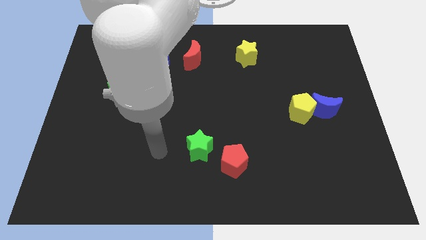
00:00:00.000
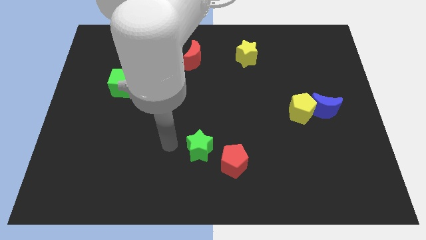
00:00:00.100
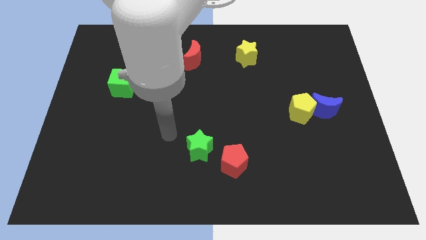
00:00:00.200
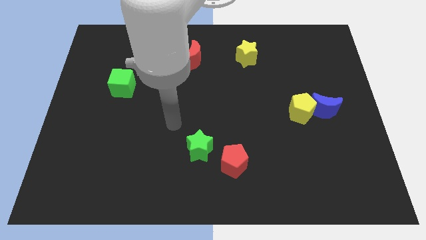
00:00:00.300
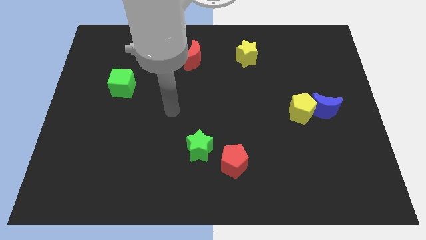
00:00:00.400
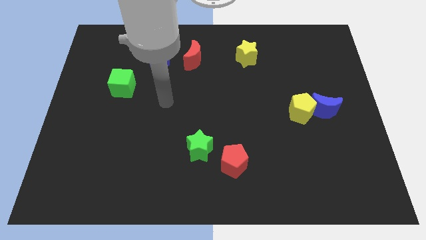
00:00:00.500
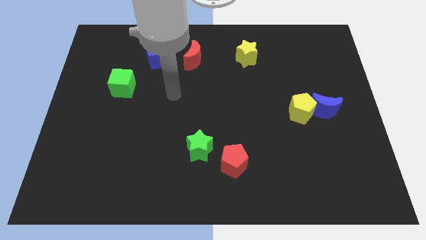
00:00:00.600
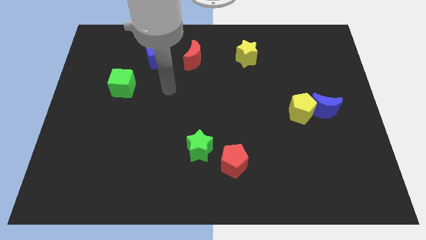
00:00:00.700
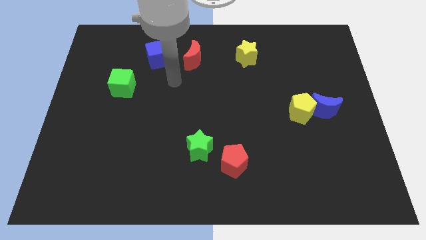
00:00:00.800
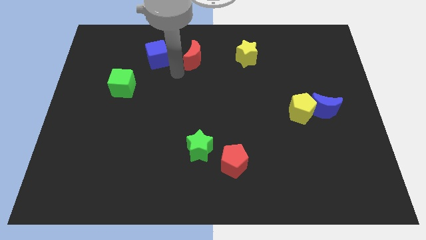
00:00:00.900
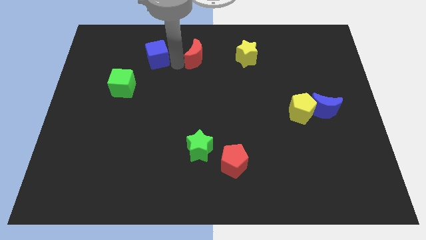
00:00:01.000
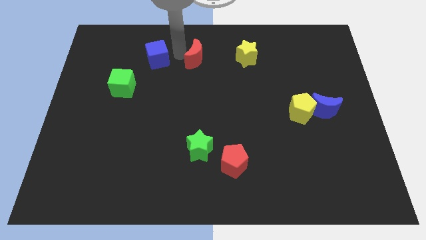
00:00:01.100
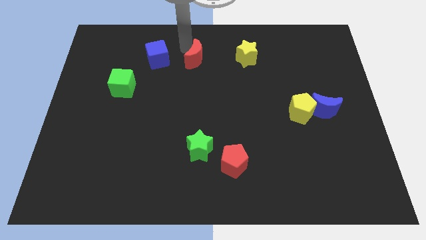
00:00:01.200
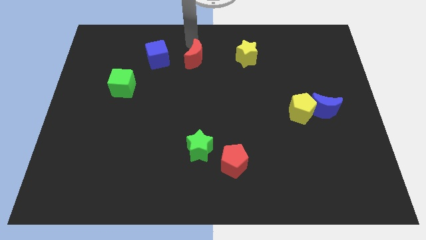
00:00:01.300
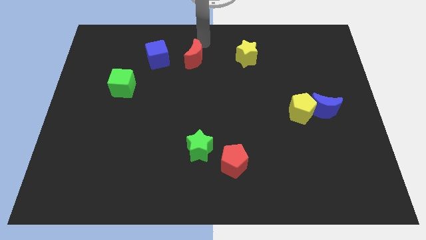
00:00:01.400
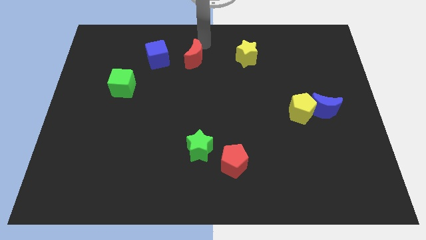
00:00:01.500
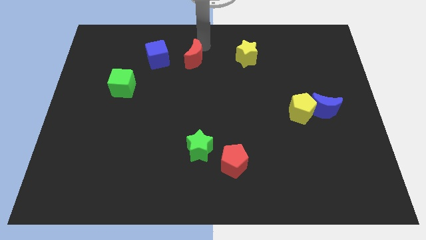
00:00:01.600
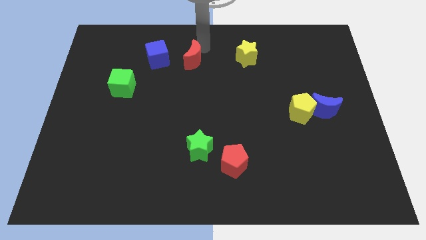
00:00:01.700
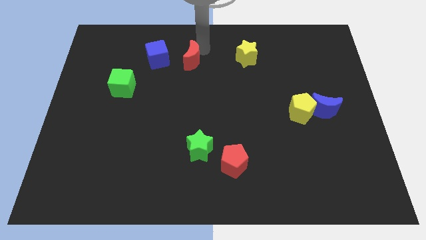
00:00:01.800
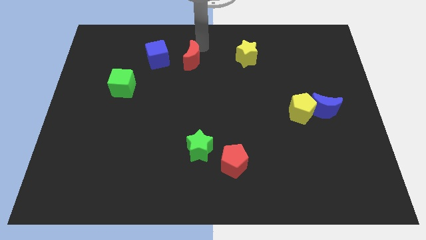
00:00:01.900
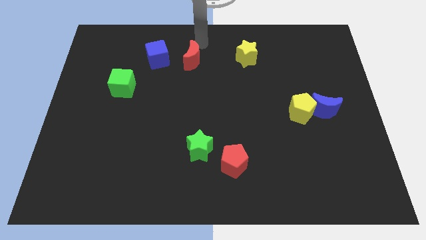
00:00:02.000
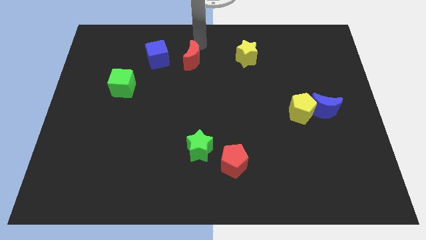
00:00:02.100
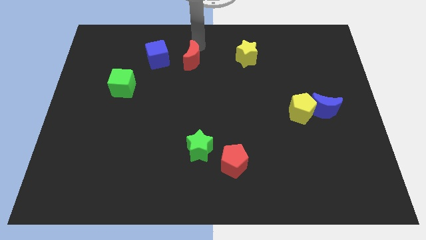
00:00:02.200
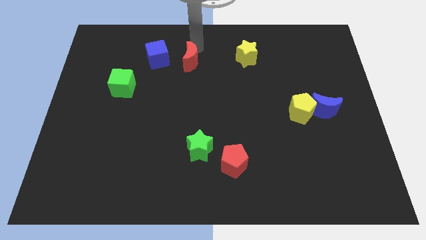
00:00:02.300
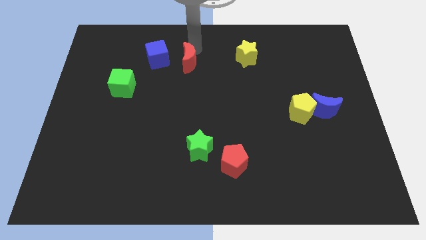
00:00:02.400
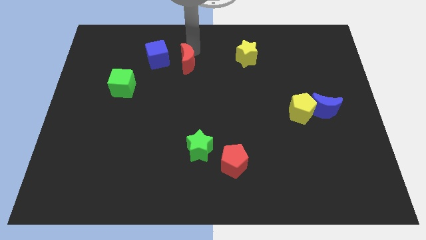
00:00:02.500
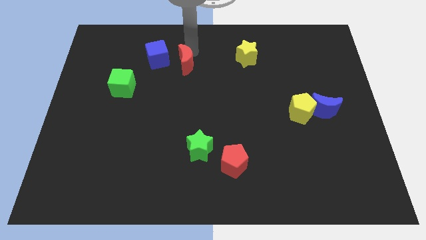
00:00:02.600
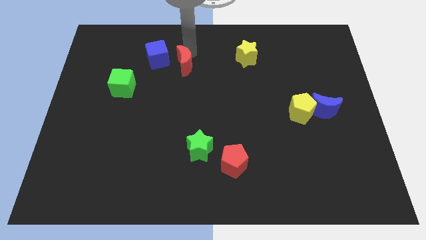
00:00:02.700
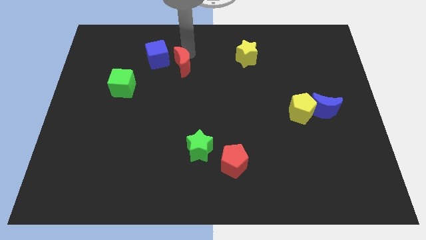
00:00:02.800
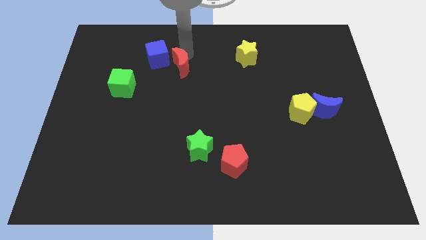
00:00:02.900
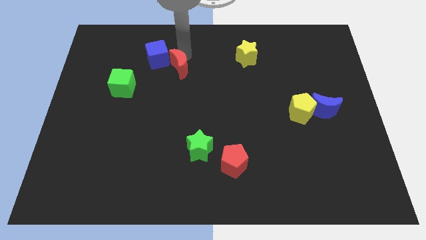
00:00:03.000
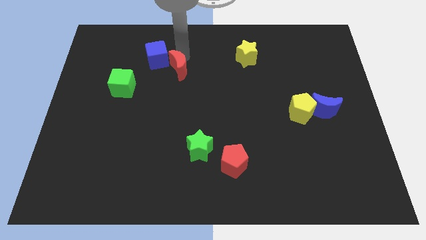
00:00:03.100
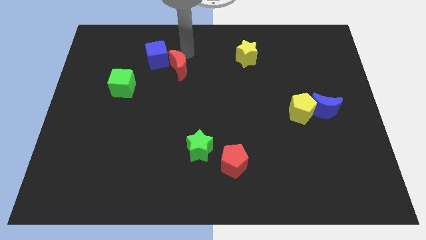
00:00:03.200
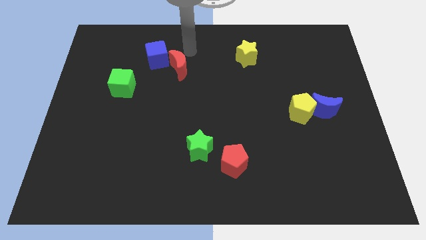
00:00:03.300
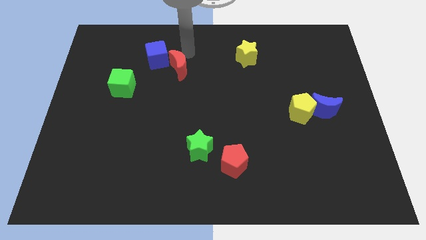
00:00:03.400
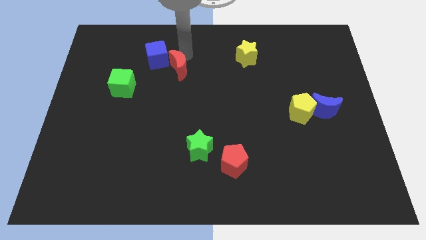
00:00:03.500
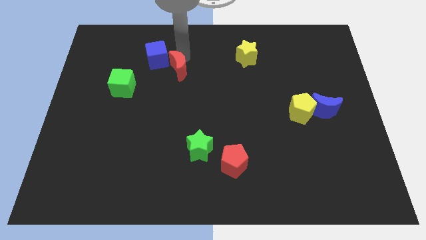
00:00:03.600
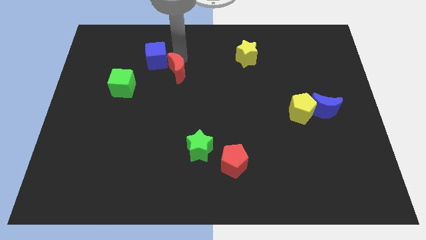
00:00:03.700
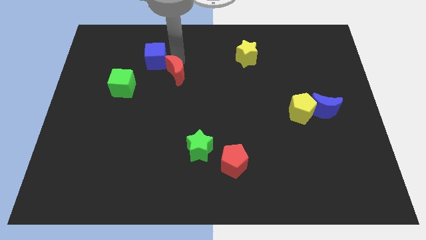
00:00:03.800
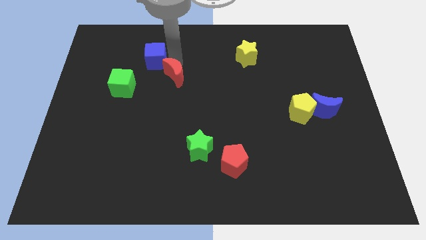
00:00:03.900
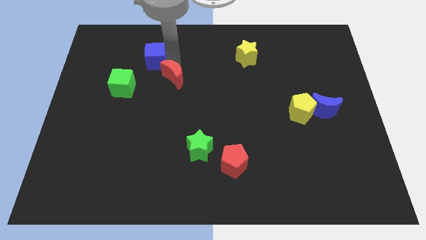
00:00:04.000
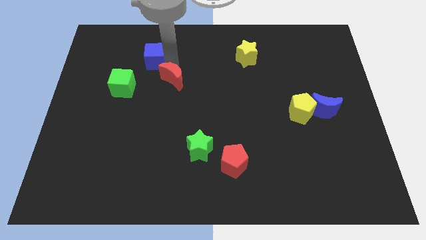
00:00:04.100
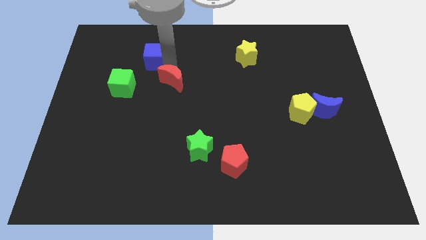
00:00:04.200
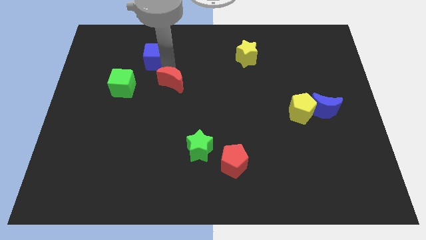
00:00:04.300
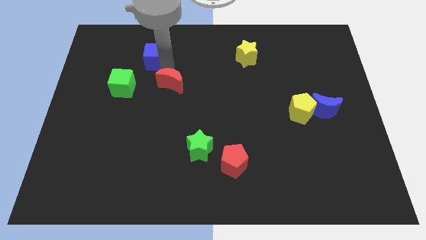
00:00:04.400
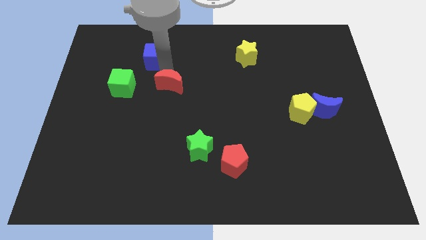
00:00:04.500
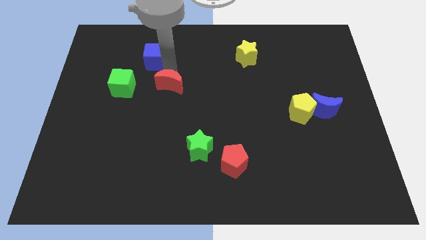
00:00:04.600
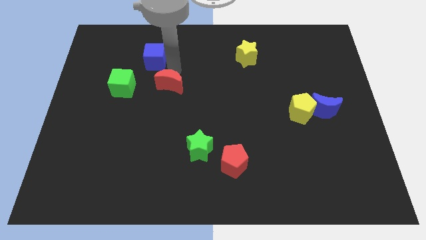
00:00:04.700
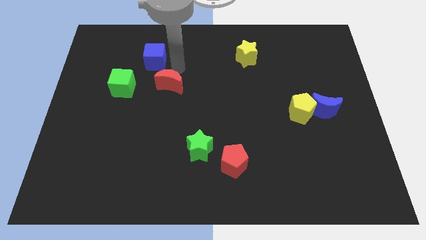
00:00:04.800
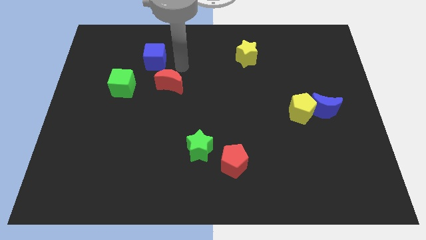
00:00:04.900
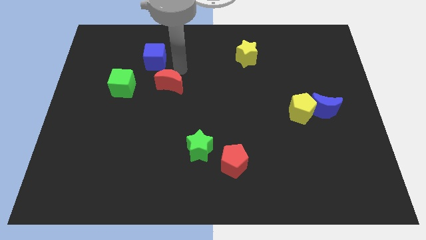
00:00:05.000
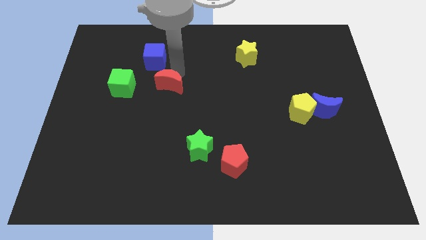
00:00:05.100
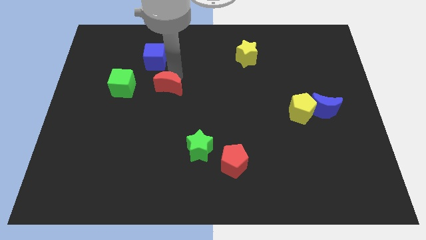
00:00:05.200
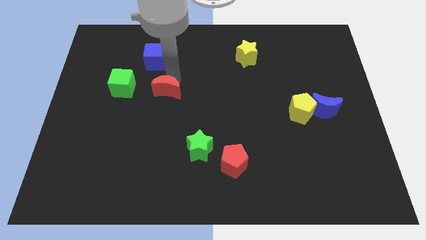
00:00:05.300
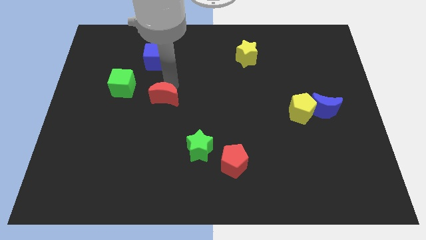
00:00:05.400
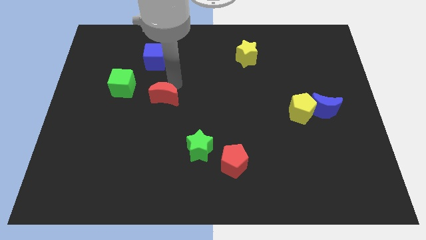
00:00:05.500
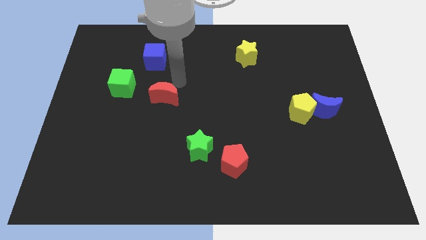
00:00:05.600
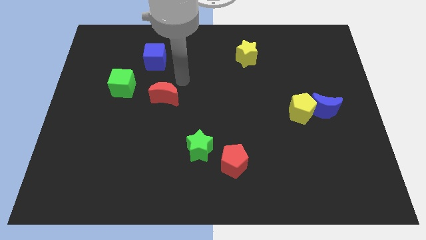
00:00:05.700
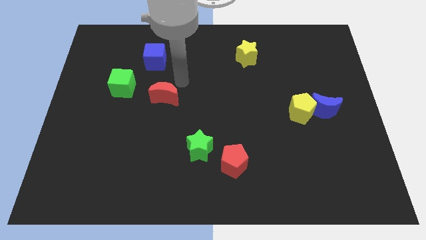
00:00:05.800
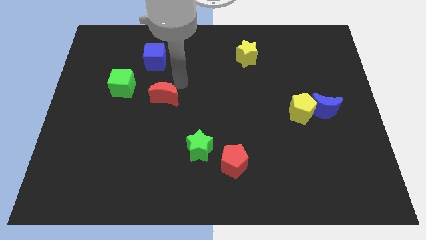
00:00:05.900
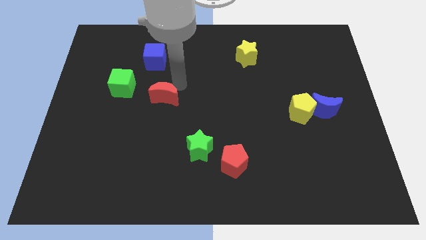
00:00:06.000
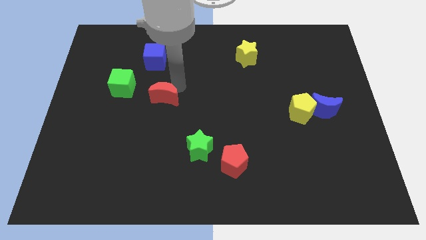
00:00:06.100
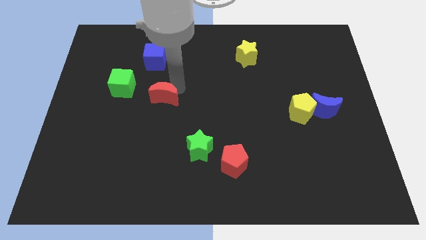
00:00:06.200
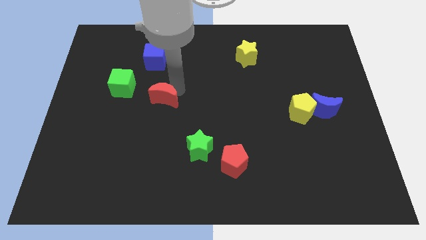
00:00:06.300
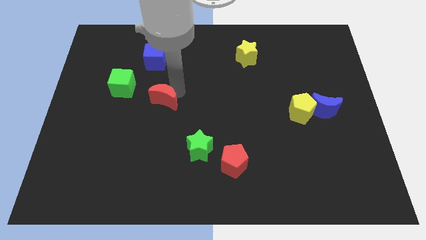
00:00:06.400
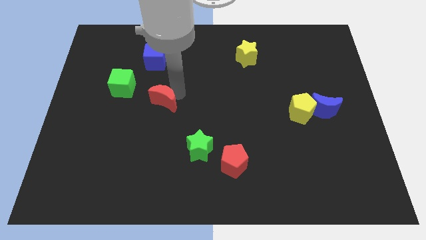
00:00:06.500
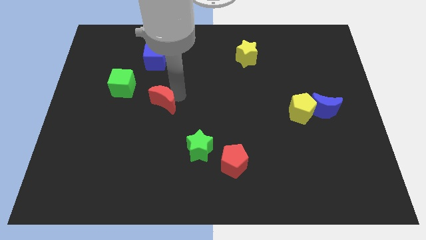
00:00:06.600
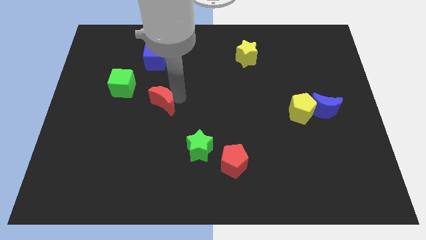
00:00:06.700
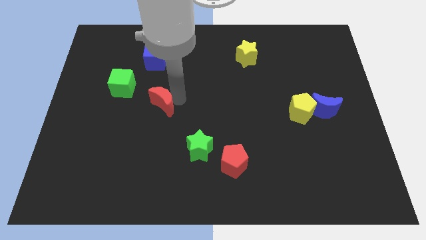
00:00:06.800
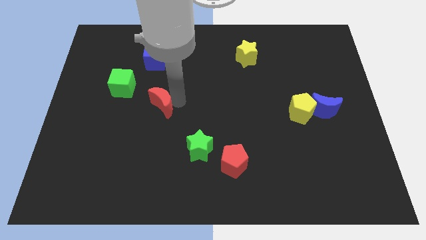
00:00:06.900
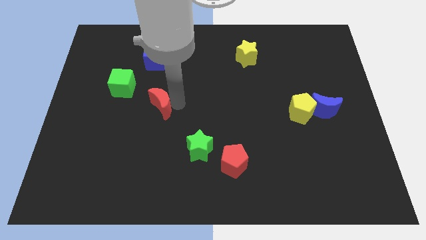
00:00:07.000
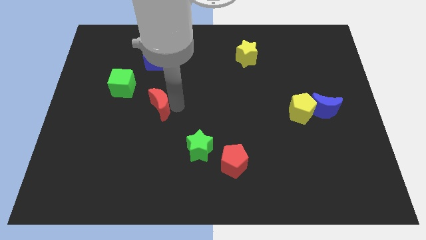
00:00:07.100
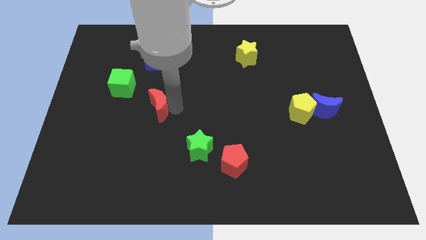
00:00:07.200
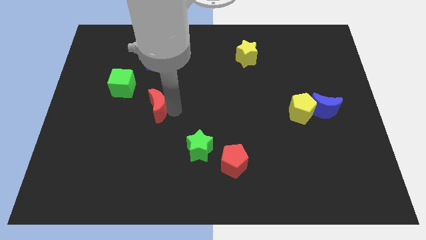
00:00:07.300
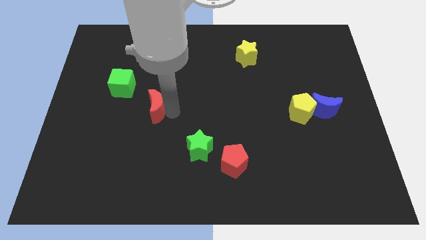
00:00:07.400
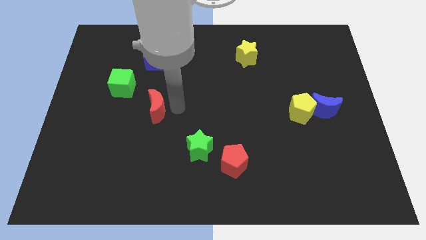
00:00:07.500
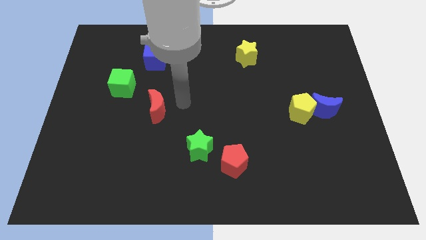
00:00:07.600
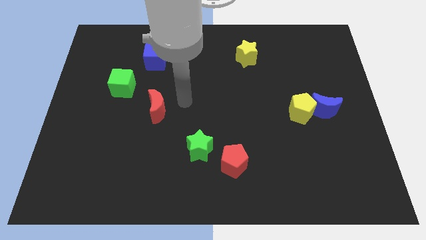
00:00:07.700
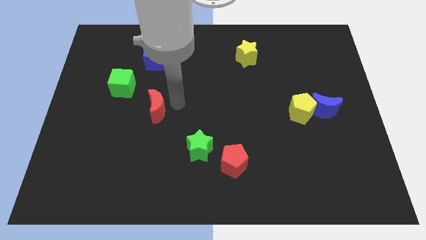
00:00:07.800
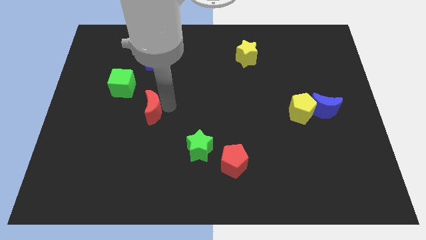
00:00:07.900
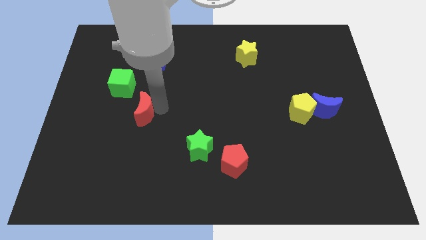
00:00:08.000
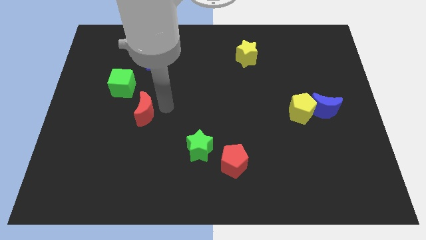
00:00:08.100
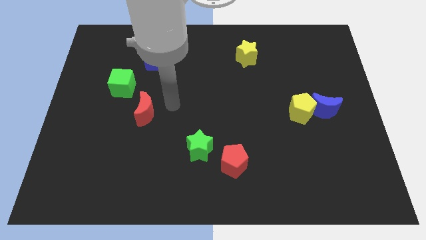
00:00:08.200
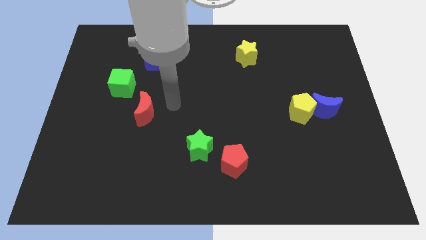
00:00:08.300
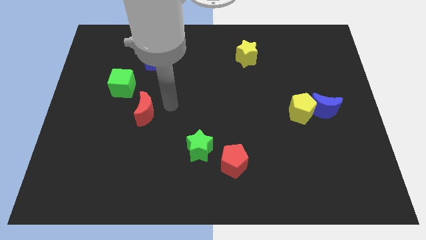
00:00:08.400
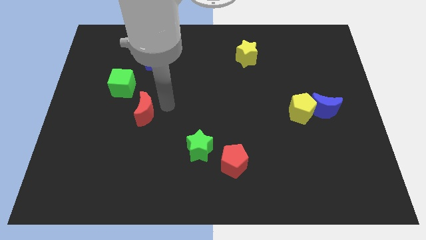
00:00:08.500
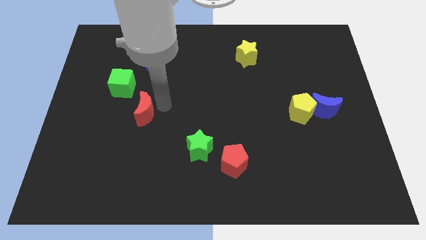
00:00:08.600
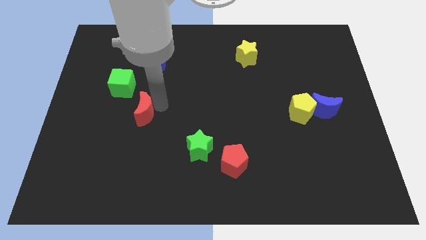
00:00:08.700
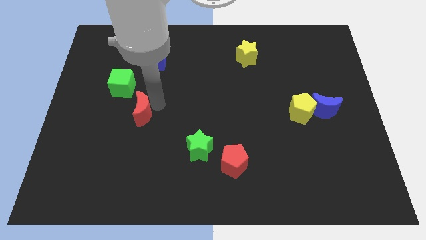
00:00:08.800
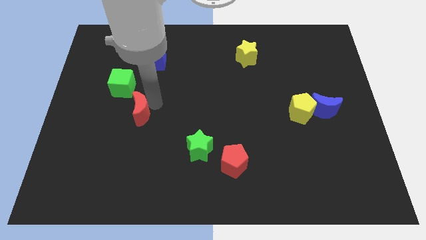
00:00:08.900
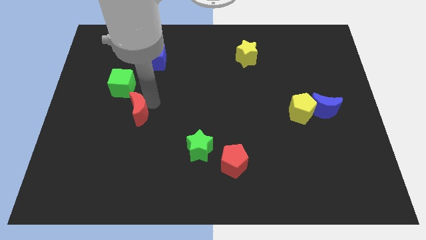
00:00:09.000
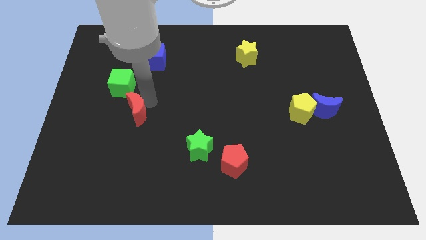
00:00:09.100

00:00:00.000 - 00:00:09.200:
push the red moon to the bottom of the green cube
